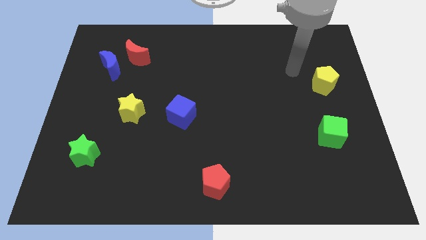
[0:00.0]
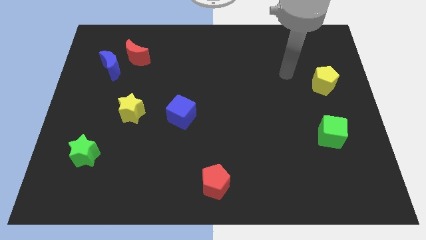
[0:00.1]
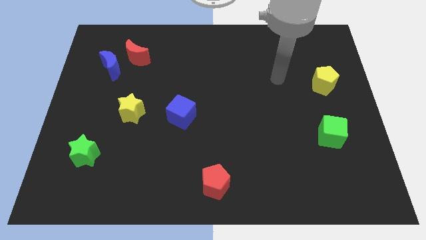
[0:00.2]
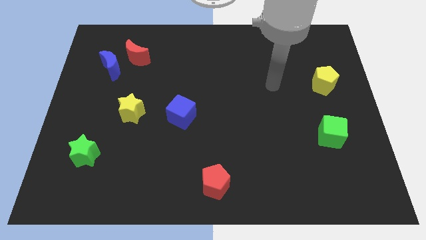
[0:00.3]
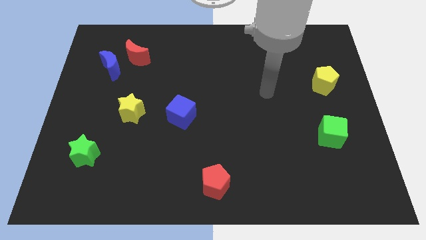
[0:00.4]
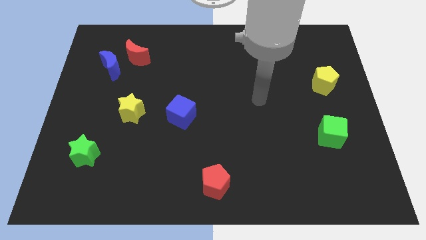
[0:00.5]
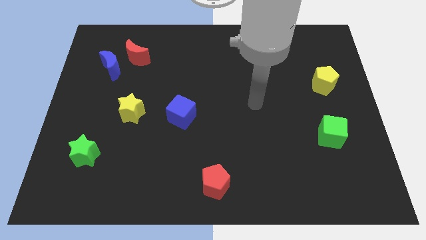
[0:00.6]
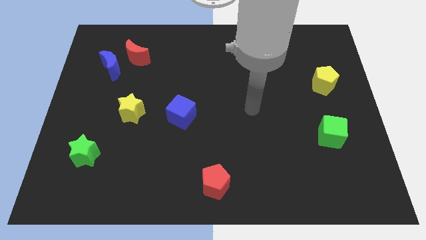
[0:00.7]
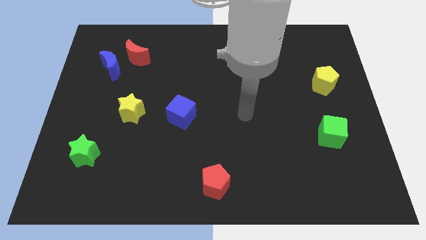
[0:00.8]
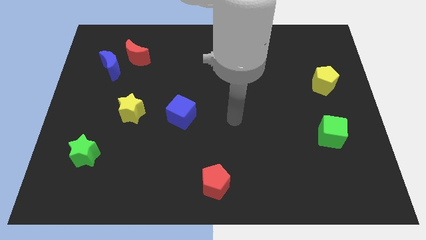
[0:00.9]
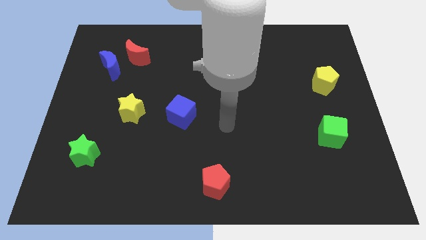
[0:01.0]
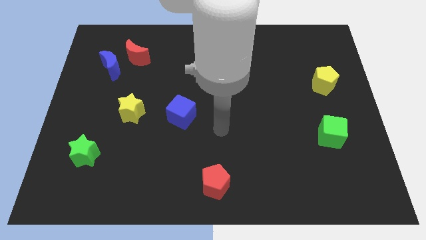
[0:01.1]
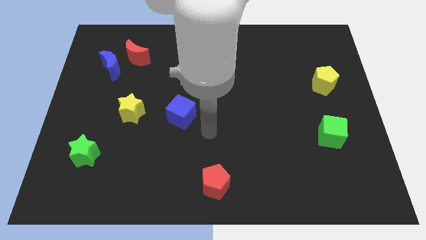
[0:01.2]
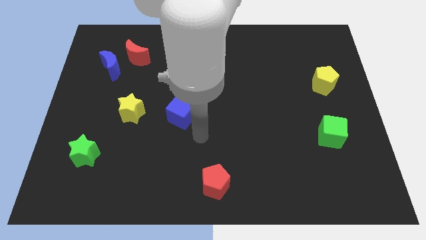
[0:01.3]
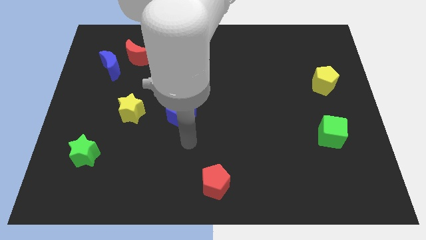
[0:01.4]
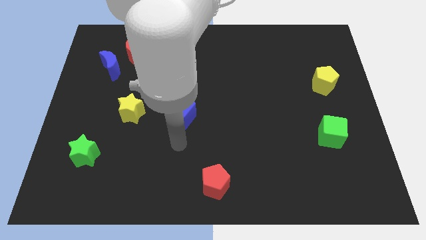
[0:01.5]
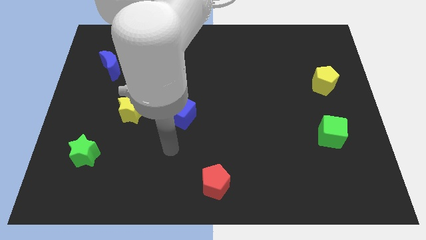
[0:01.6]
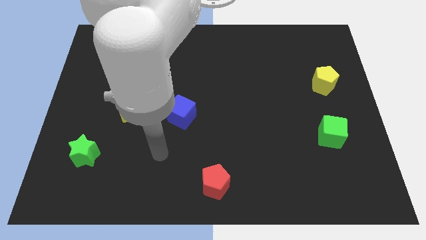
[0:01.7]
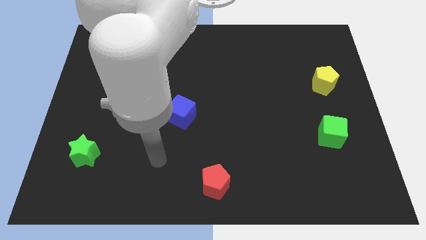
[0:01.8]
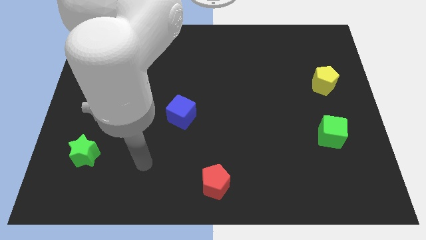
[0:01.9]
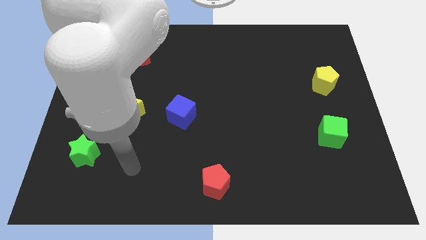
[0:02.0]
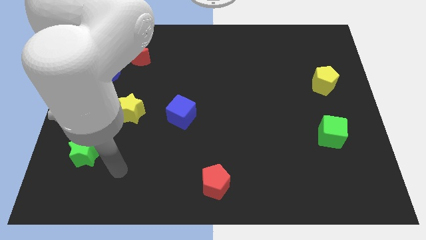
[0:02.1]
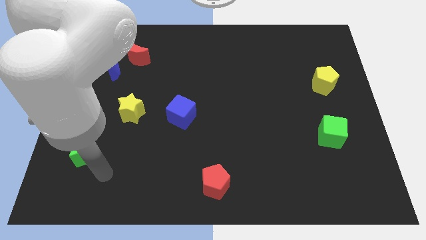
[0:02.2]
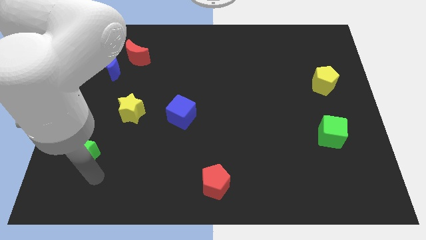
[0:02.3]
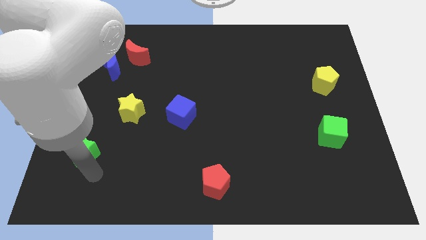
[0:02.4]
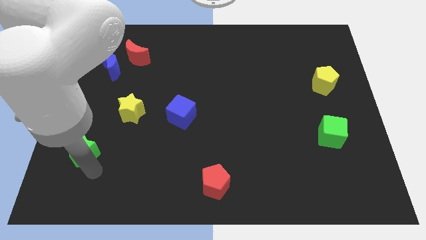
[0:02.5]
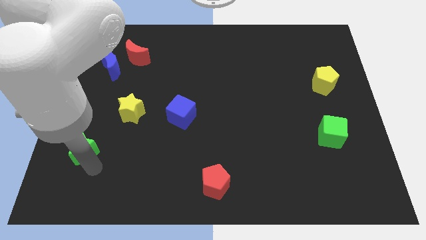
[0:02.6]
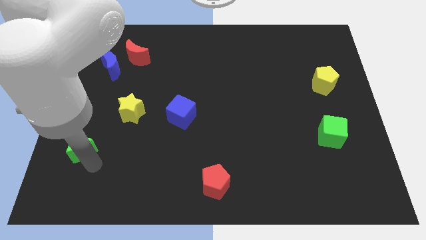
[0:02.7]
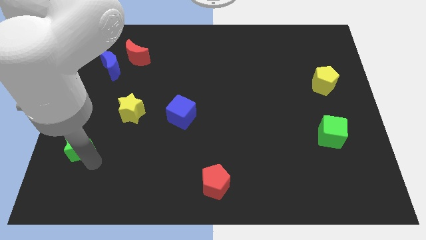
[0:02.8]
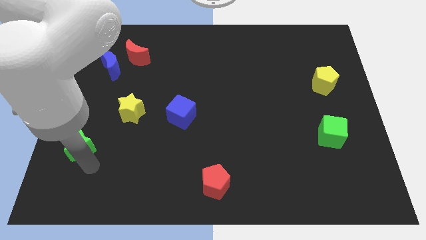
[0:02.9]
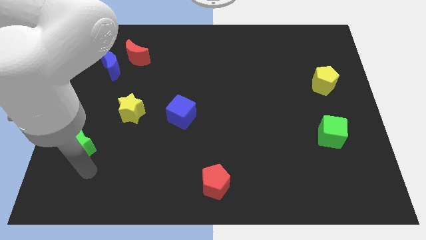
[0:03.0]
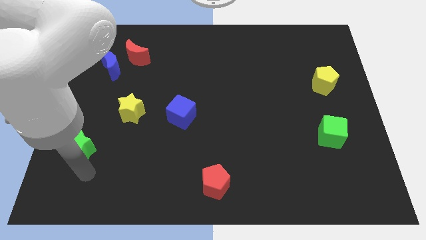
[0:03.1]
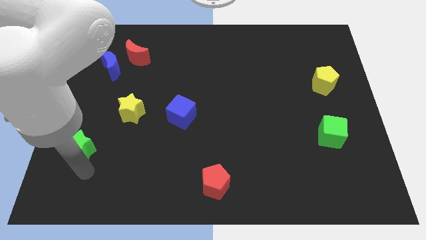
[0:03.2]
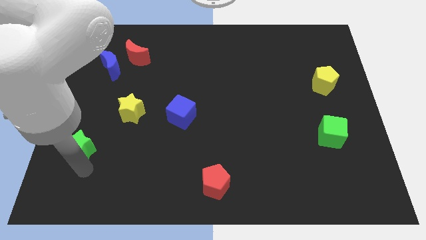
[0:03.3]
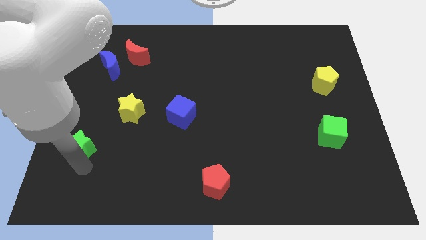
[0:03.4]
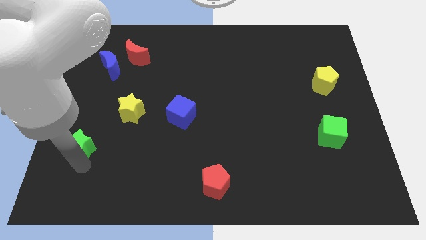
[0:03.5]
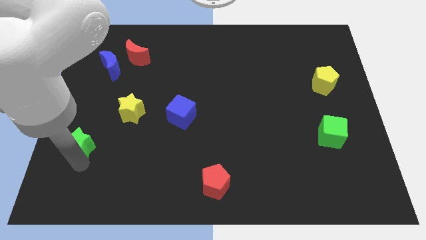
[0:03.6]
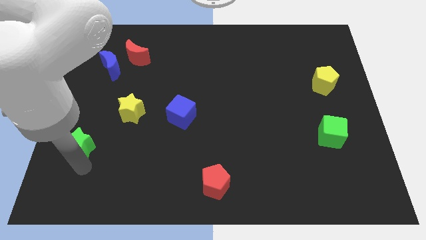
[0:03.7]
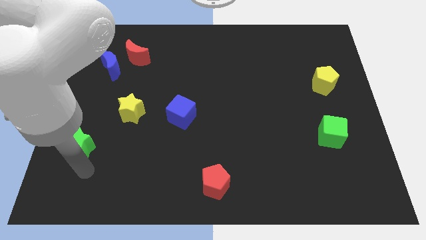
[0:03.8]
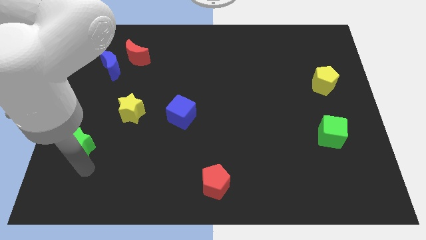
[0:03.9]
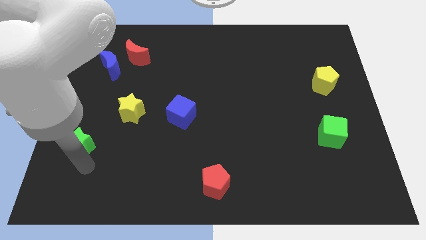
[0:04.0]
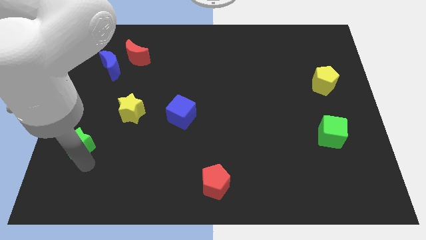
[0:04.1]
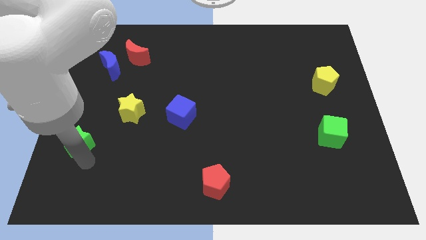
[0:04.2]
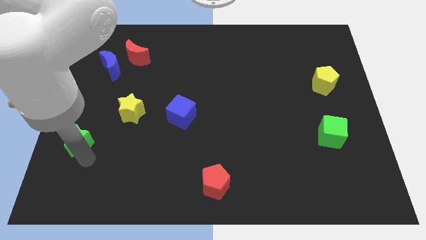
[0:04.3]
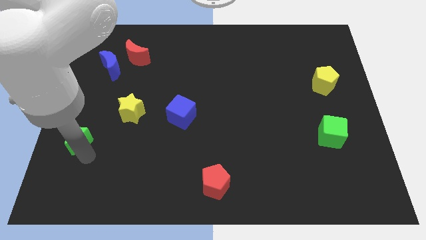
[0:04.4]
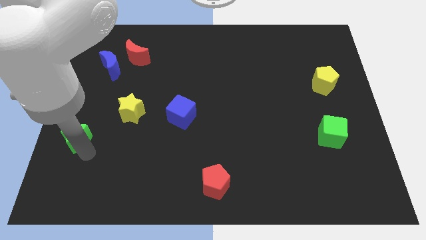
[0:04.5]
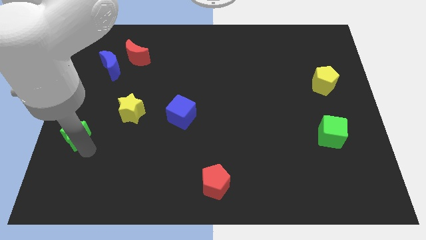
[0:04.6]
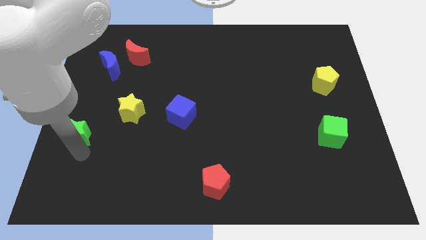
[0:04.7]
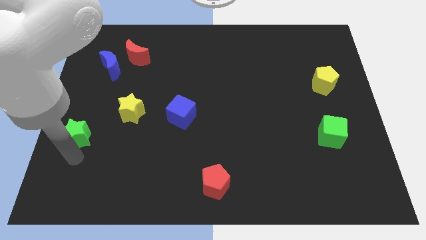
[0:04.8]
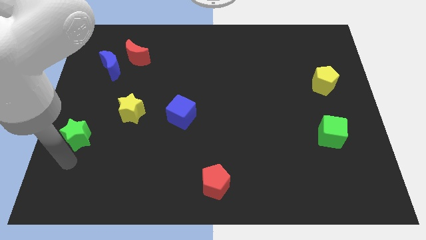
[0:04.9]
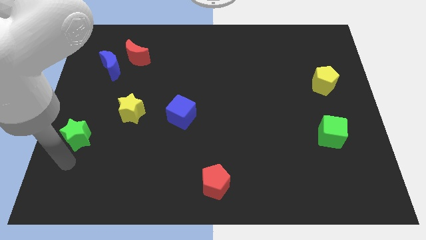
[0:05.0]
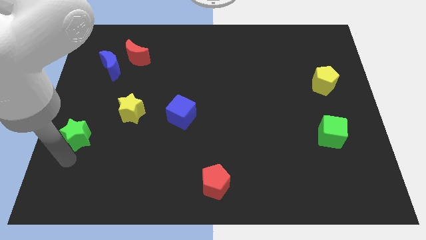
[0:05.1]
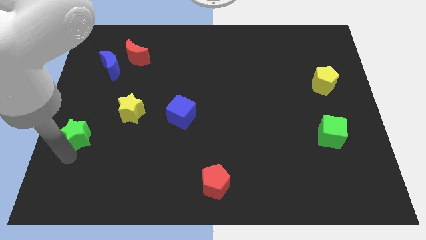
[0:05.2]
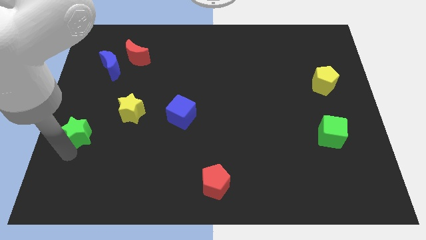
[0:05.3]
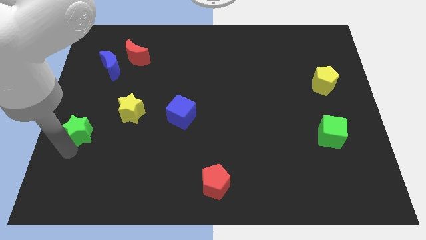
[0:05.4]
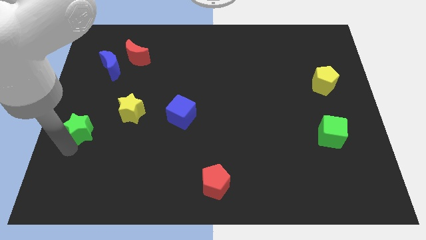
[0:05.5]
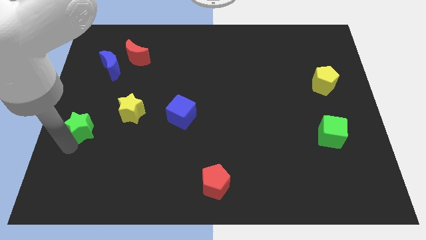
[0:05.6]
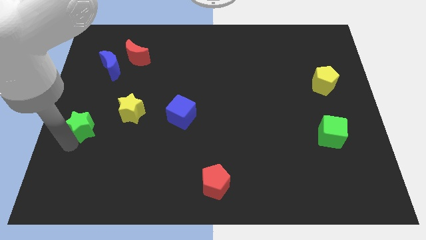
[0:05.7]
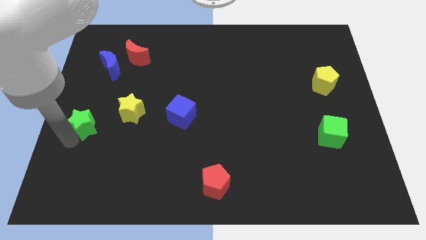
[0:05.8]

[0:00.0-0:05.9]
slightly push the green star up

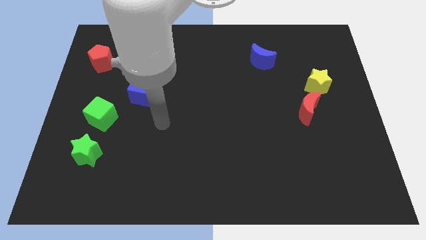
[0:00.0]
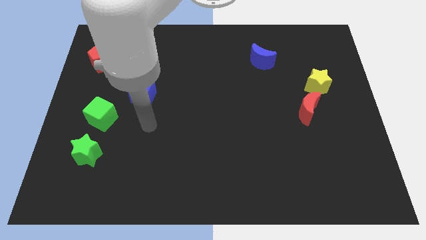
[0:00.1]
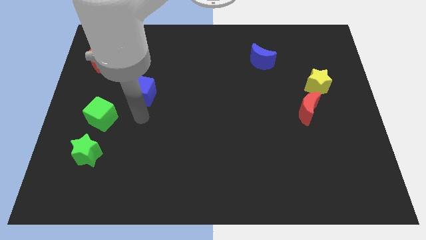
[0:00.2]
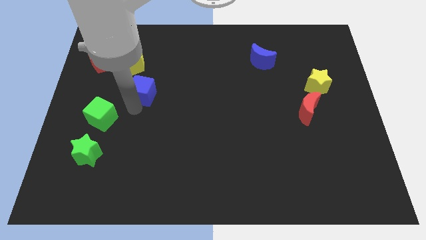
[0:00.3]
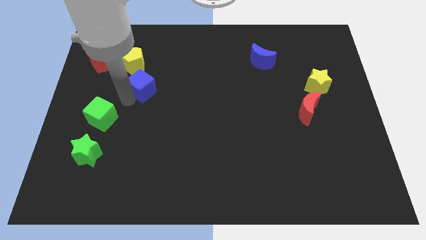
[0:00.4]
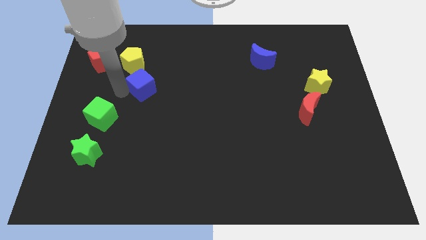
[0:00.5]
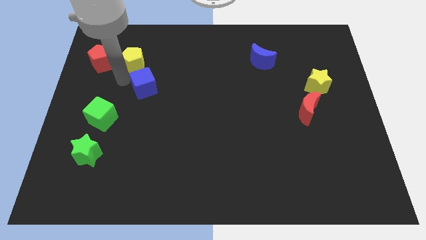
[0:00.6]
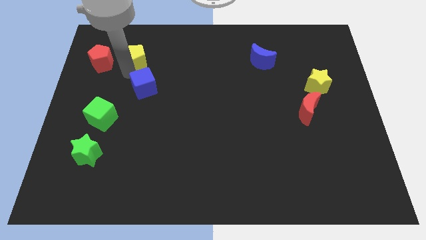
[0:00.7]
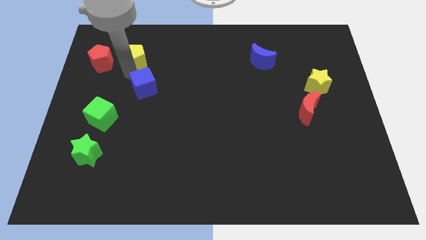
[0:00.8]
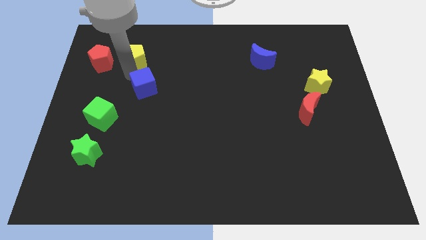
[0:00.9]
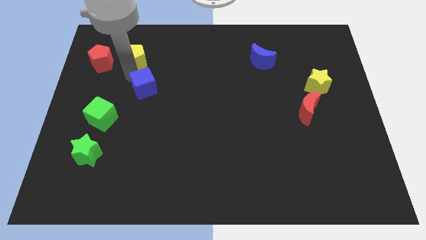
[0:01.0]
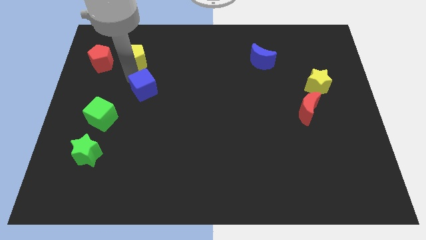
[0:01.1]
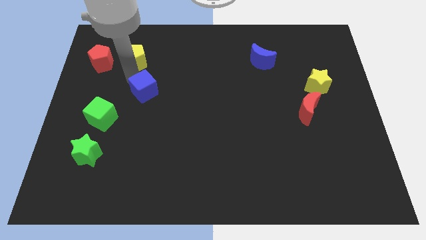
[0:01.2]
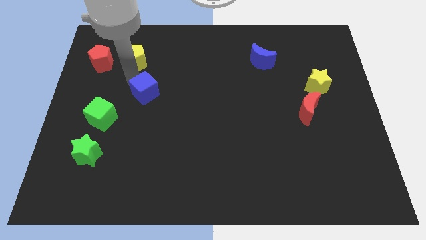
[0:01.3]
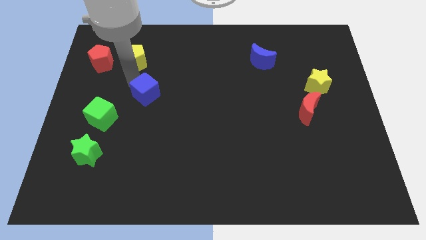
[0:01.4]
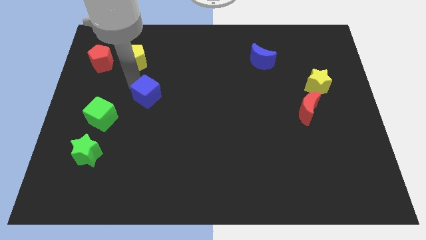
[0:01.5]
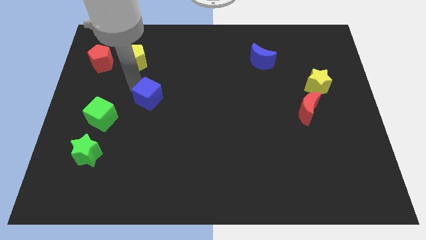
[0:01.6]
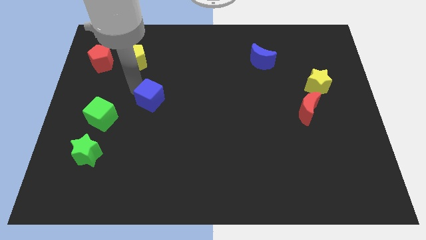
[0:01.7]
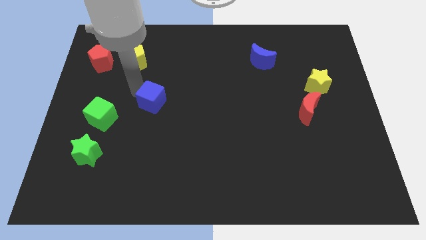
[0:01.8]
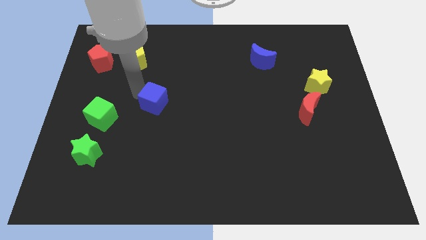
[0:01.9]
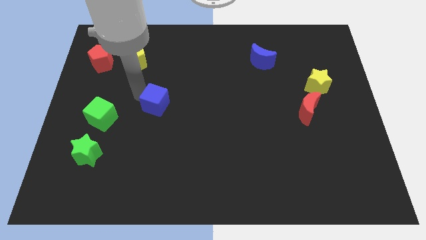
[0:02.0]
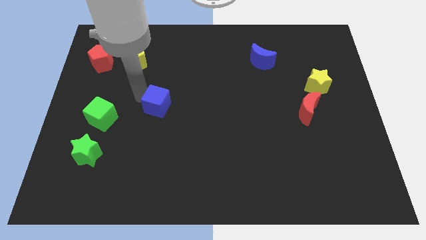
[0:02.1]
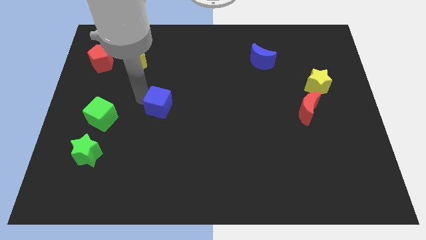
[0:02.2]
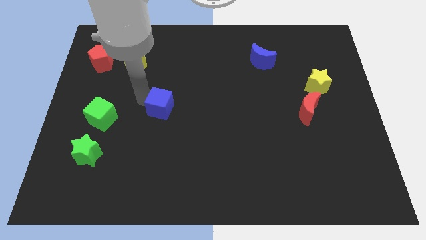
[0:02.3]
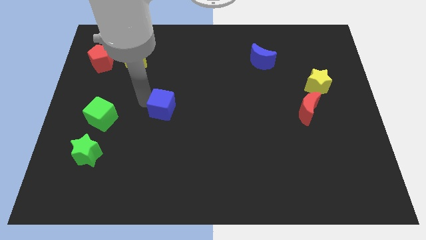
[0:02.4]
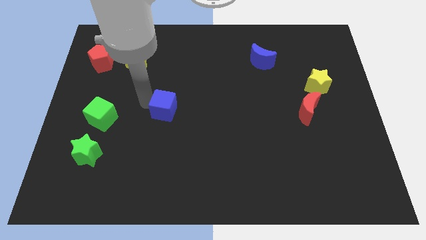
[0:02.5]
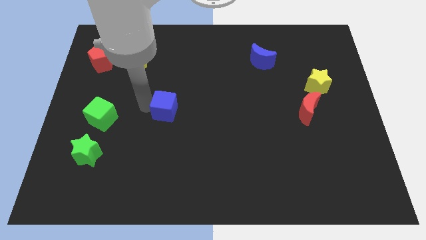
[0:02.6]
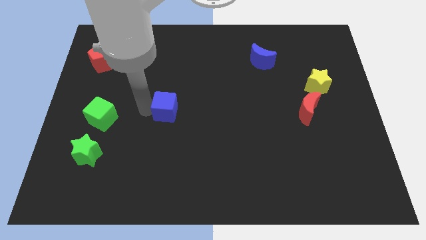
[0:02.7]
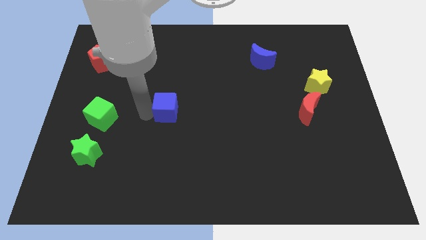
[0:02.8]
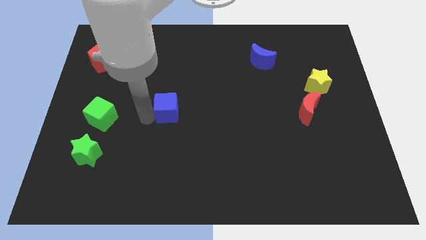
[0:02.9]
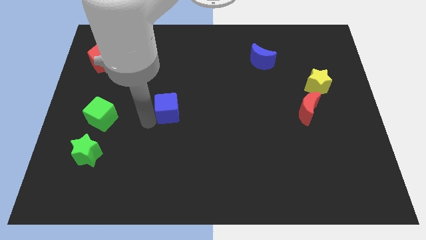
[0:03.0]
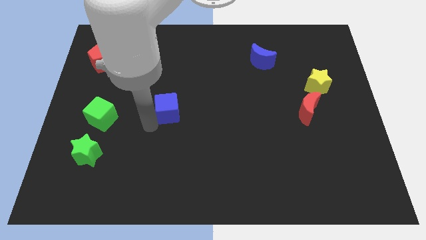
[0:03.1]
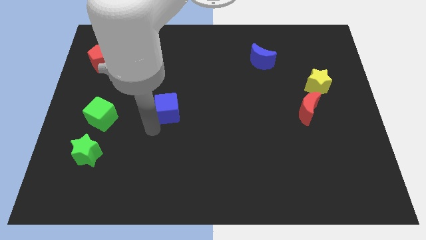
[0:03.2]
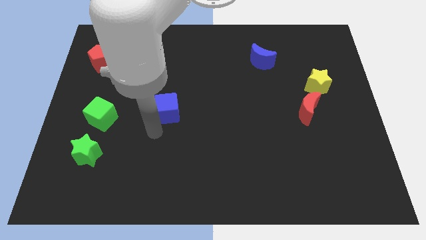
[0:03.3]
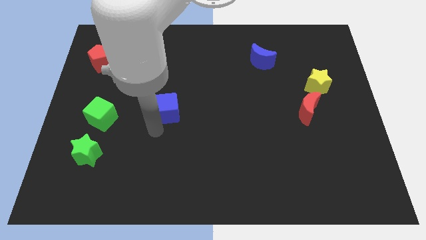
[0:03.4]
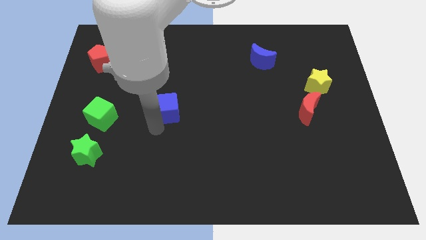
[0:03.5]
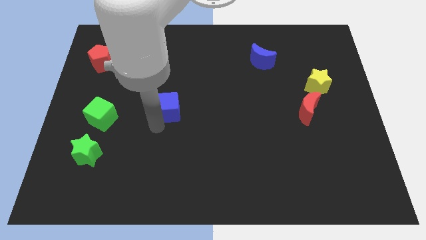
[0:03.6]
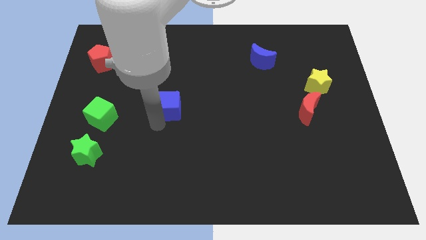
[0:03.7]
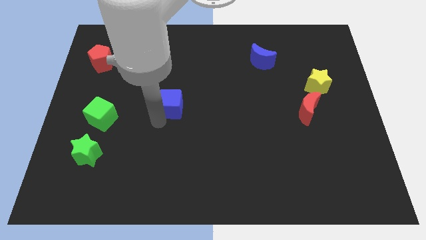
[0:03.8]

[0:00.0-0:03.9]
slightly move the blue cube right
